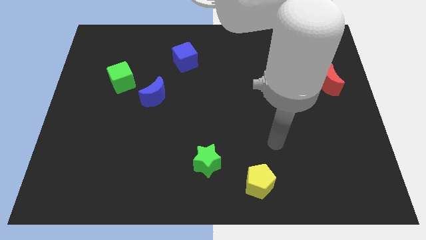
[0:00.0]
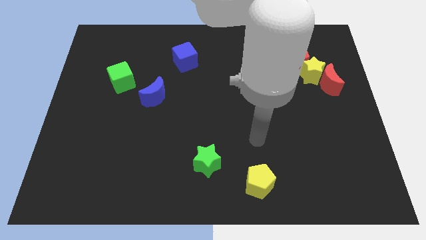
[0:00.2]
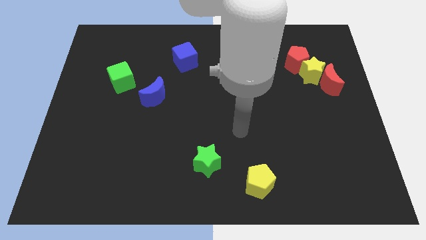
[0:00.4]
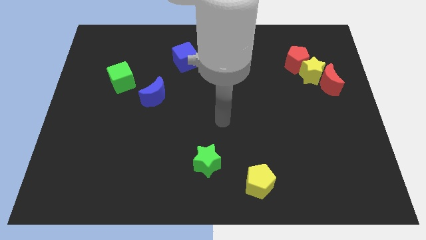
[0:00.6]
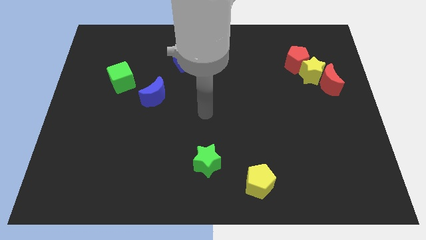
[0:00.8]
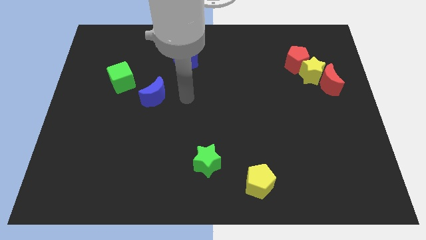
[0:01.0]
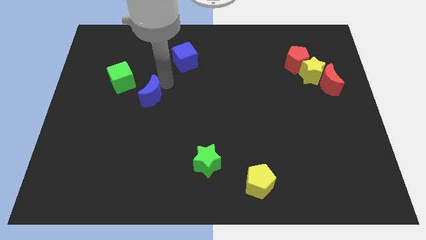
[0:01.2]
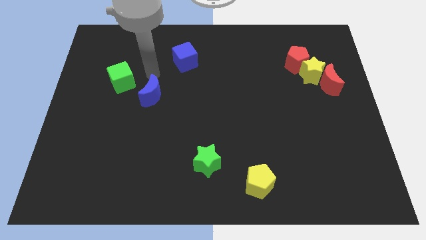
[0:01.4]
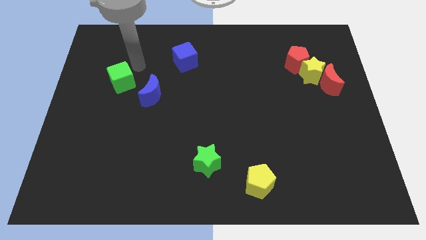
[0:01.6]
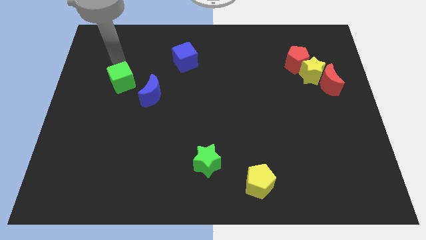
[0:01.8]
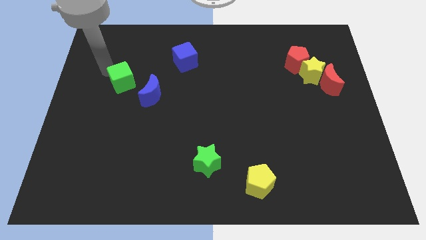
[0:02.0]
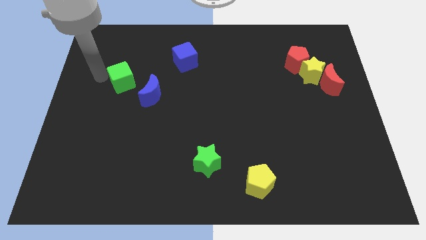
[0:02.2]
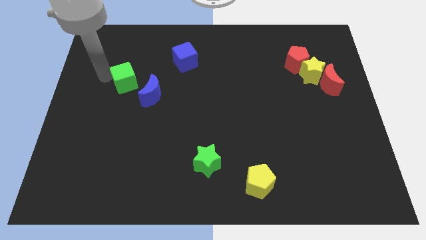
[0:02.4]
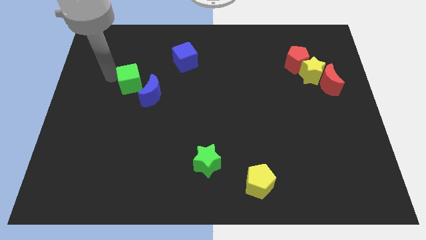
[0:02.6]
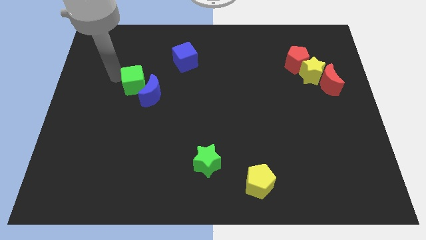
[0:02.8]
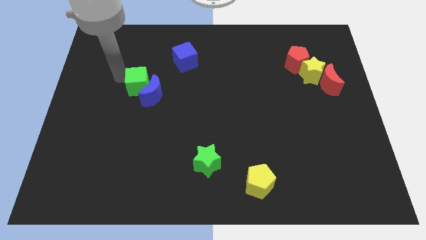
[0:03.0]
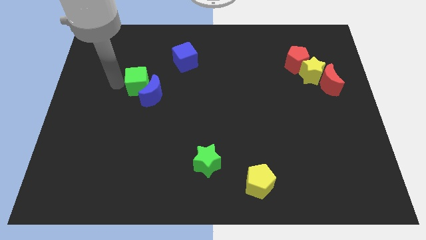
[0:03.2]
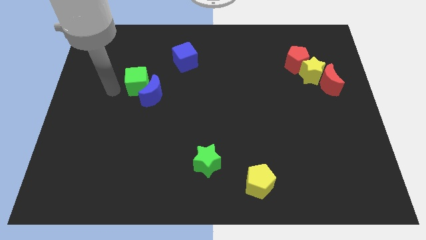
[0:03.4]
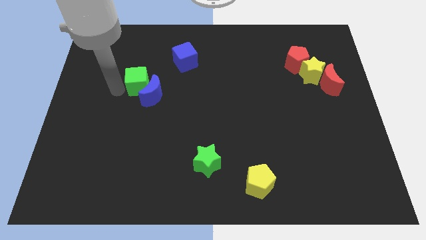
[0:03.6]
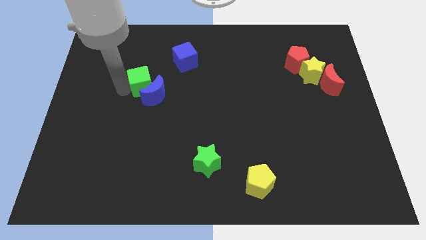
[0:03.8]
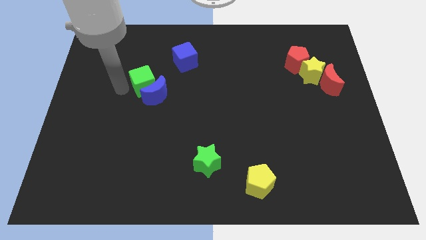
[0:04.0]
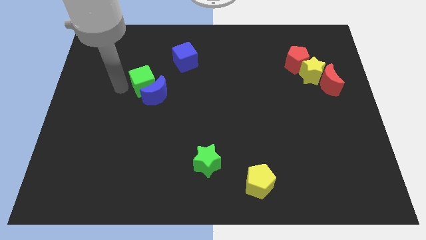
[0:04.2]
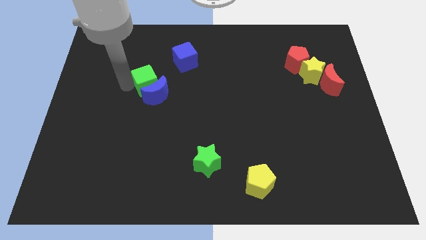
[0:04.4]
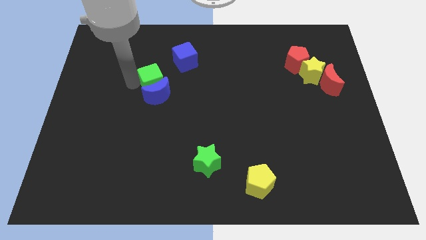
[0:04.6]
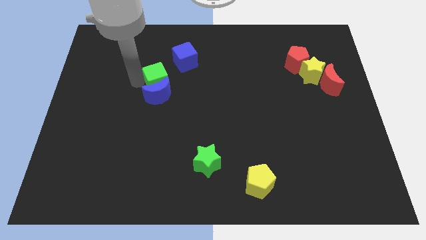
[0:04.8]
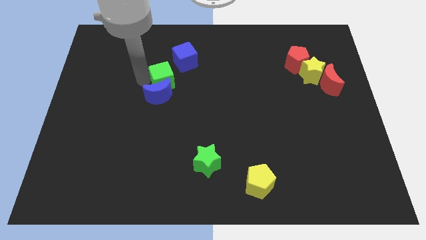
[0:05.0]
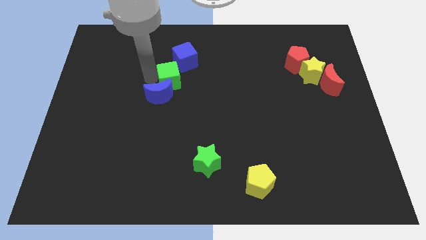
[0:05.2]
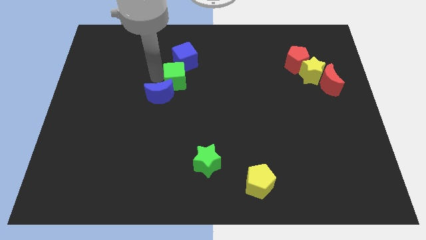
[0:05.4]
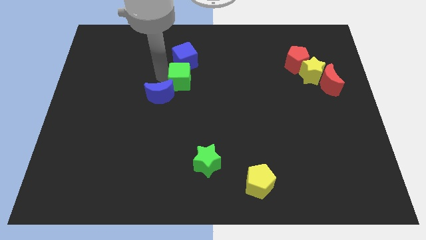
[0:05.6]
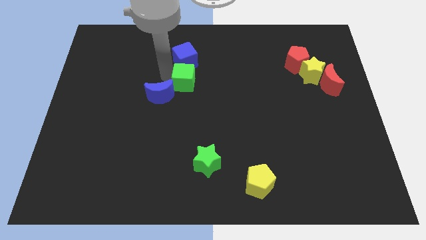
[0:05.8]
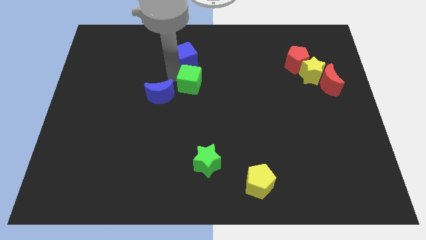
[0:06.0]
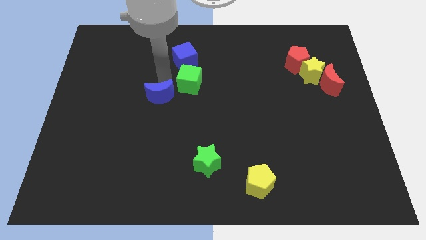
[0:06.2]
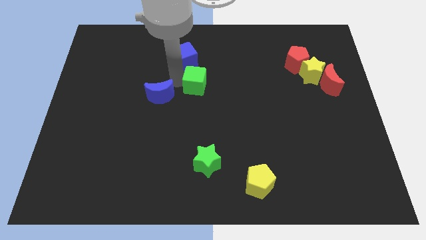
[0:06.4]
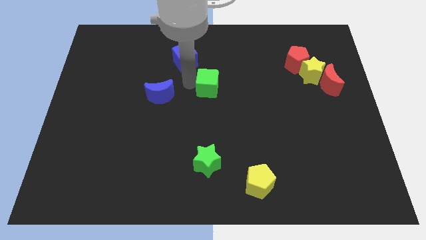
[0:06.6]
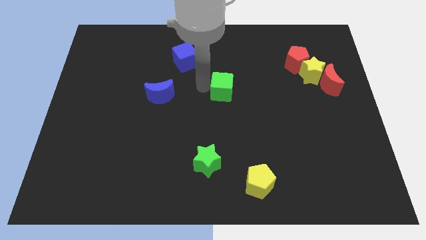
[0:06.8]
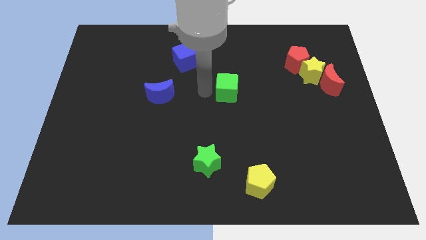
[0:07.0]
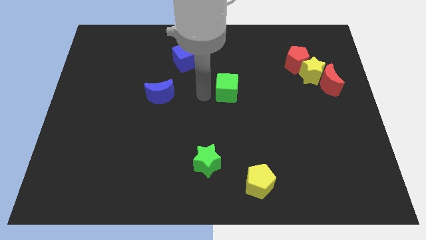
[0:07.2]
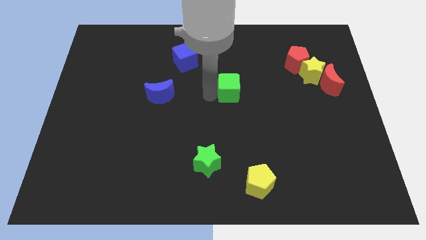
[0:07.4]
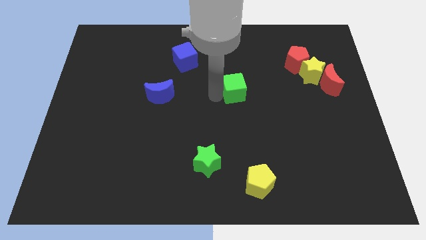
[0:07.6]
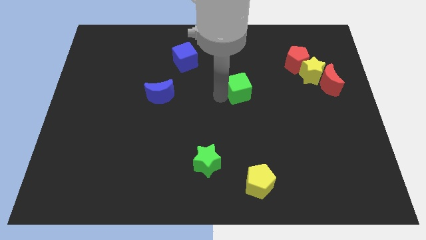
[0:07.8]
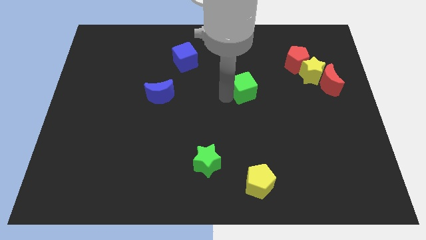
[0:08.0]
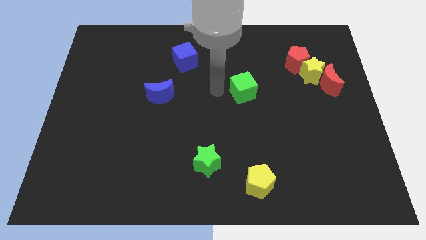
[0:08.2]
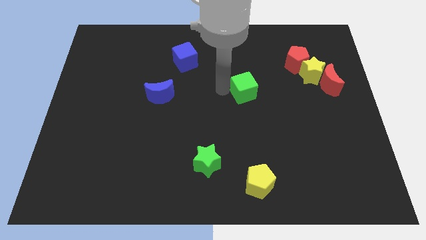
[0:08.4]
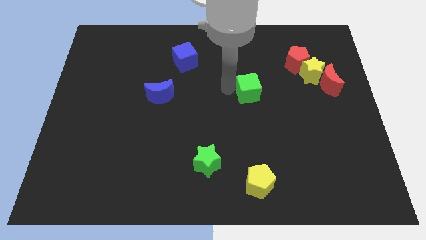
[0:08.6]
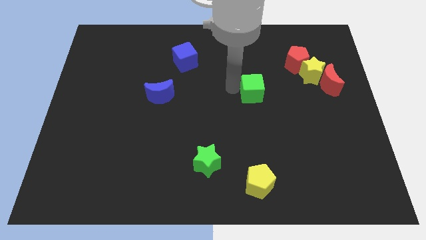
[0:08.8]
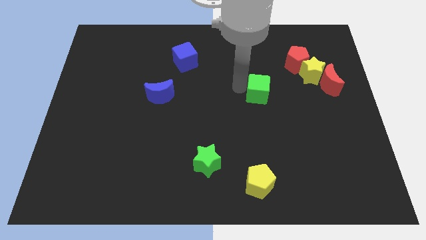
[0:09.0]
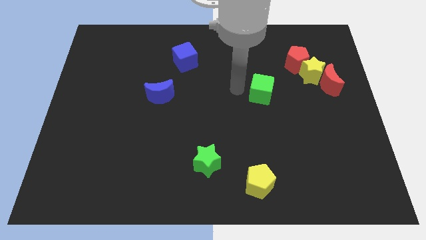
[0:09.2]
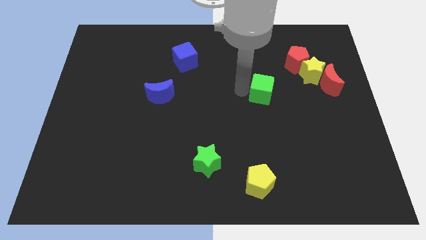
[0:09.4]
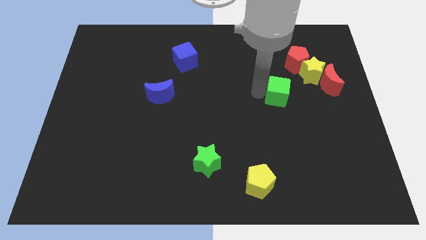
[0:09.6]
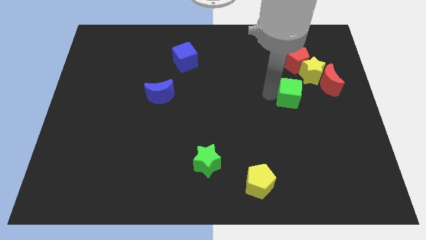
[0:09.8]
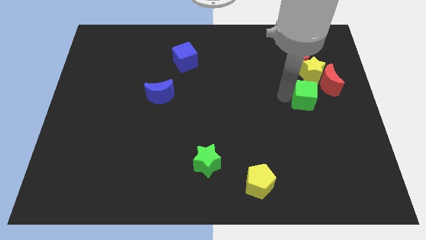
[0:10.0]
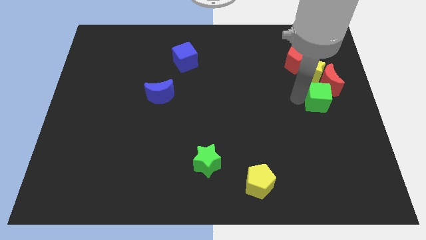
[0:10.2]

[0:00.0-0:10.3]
slide the green cube to the right side

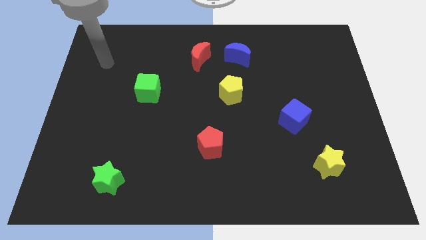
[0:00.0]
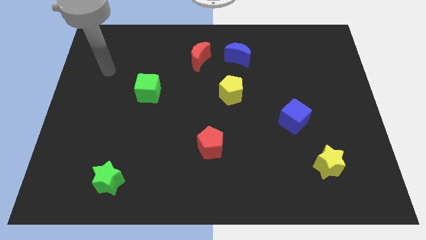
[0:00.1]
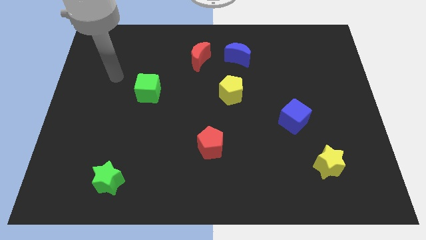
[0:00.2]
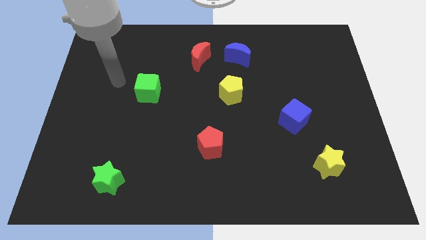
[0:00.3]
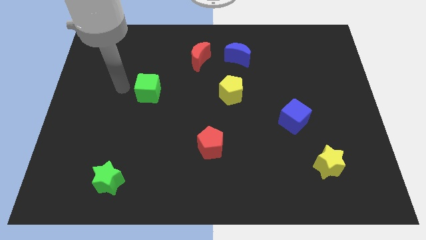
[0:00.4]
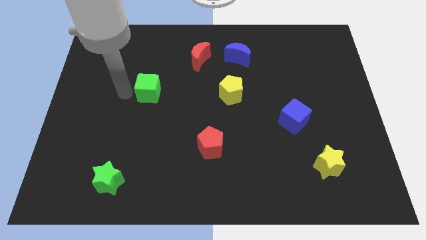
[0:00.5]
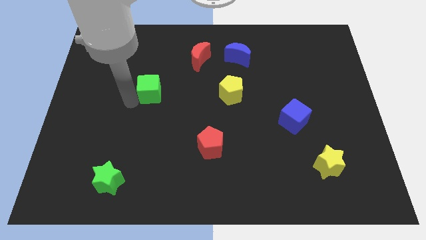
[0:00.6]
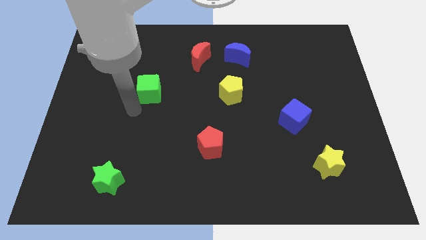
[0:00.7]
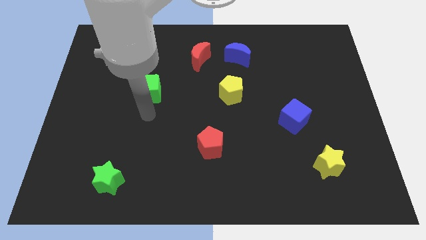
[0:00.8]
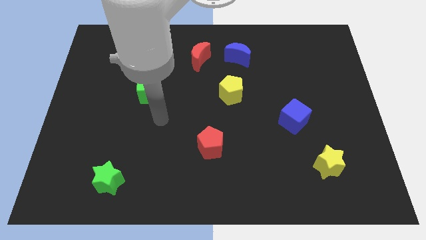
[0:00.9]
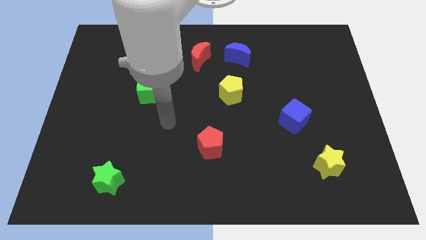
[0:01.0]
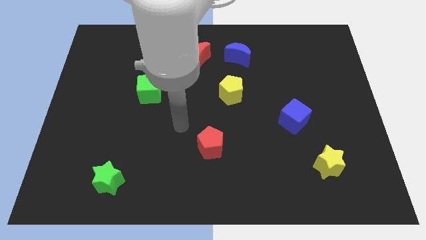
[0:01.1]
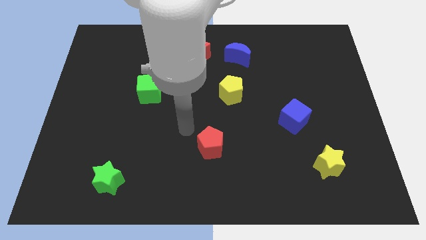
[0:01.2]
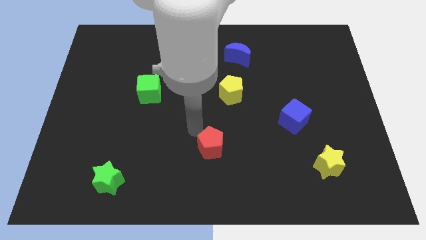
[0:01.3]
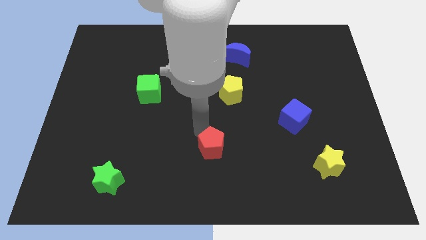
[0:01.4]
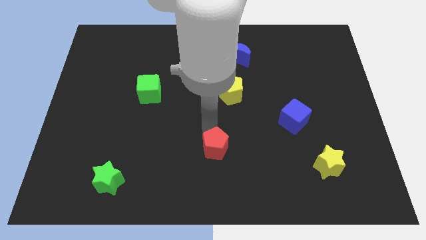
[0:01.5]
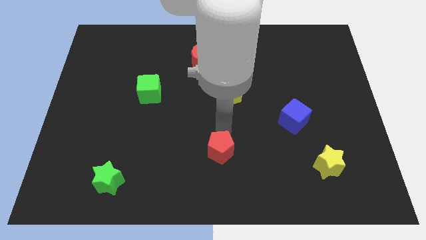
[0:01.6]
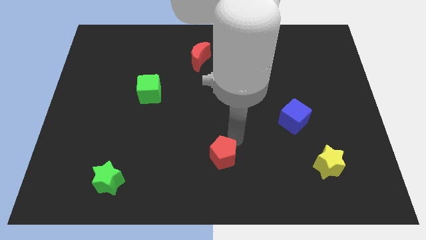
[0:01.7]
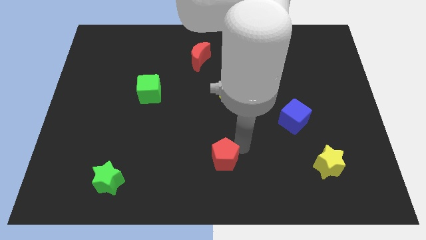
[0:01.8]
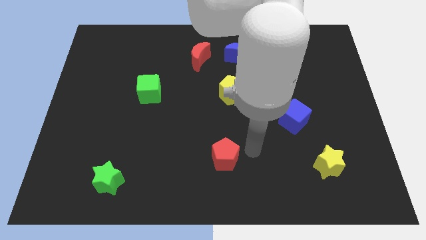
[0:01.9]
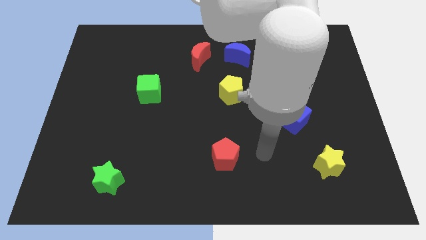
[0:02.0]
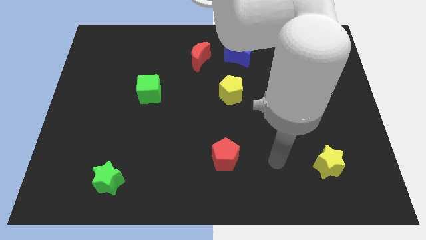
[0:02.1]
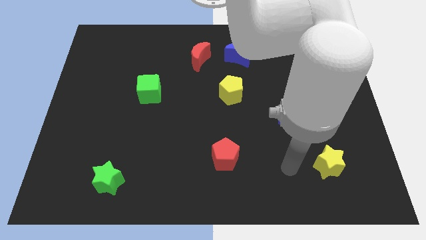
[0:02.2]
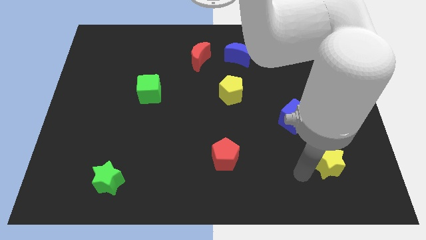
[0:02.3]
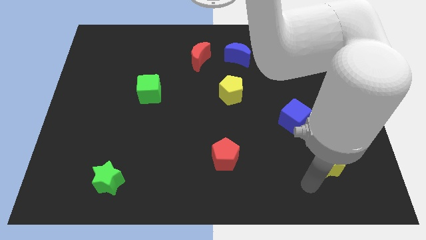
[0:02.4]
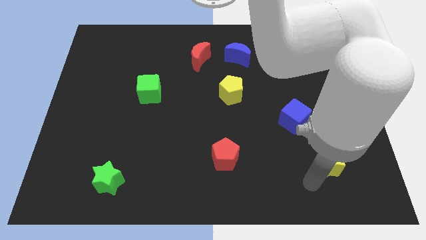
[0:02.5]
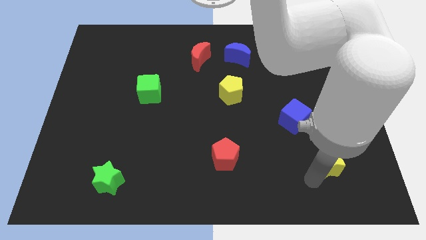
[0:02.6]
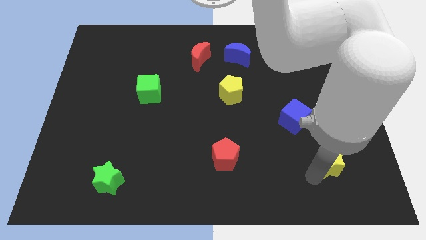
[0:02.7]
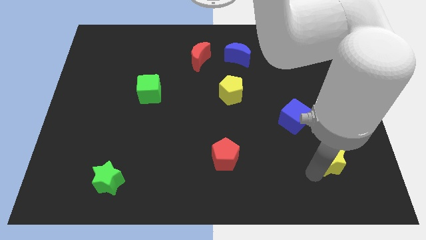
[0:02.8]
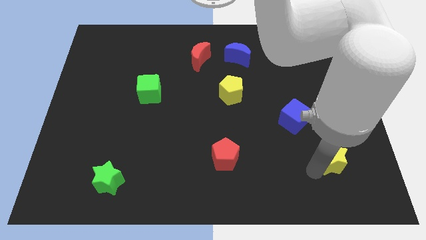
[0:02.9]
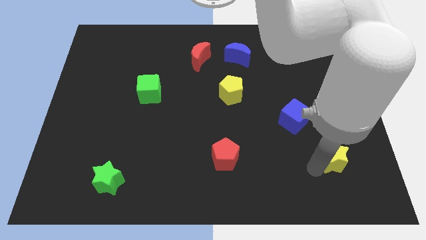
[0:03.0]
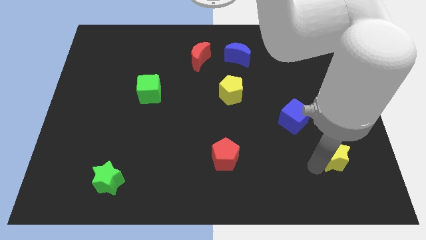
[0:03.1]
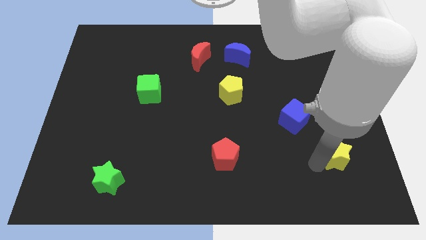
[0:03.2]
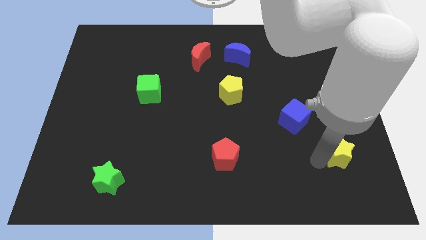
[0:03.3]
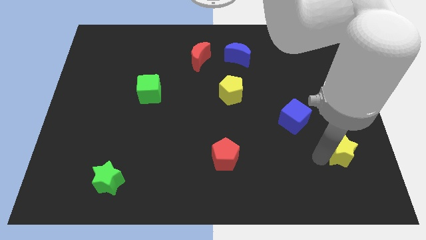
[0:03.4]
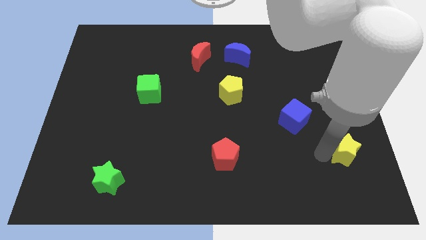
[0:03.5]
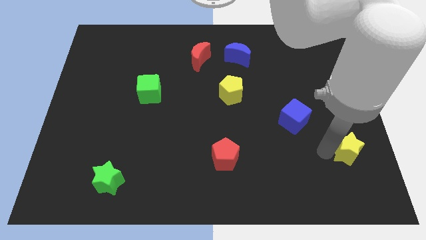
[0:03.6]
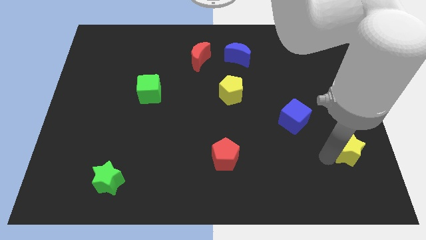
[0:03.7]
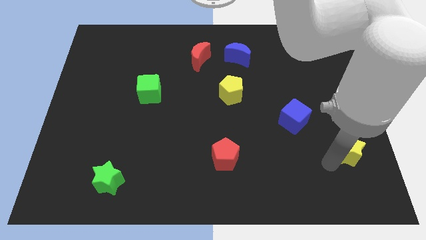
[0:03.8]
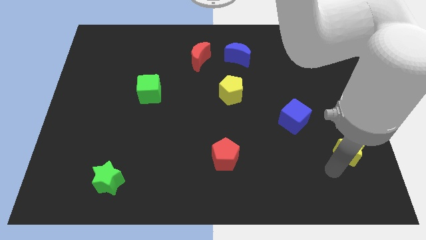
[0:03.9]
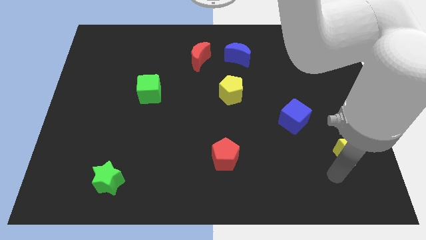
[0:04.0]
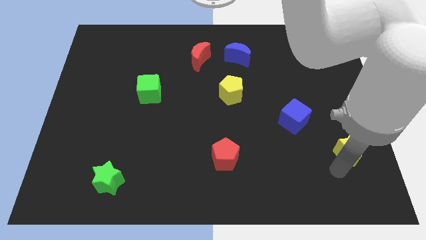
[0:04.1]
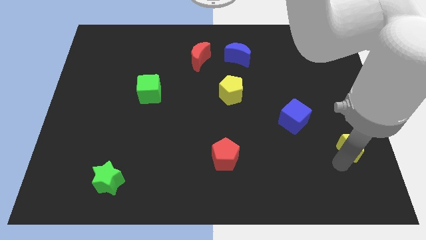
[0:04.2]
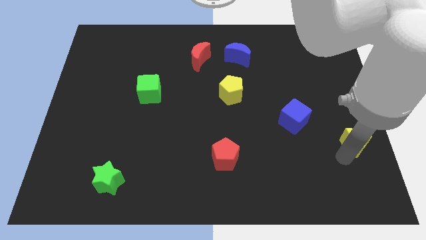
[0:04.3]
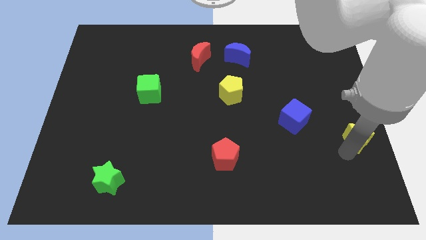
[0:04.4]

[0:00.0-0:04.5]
move the yellow star to the right side of the board
